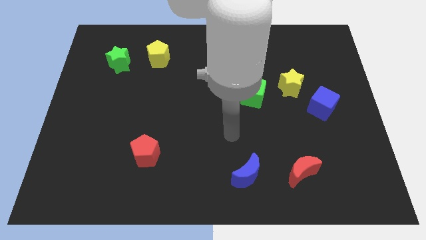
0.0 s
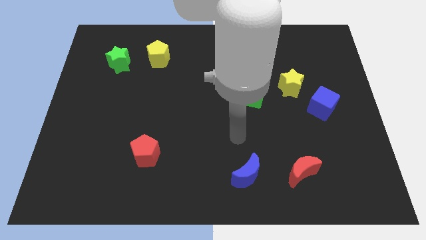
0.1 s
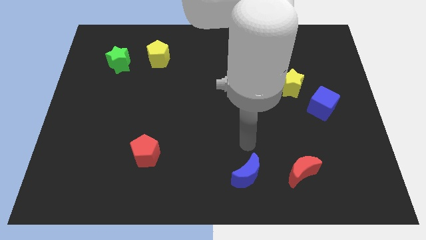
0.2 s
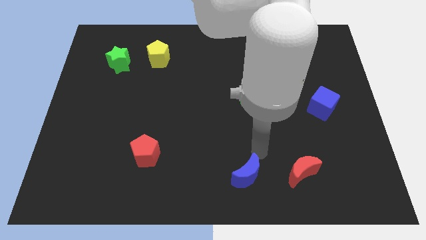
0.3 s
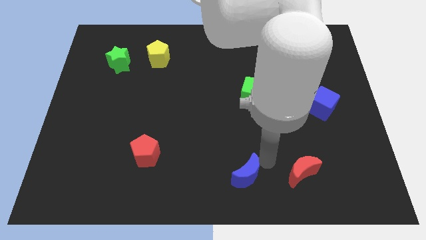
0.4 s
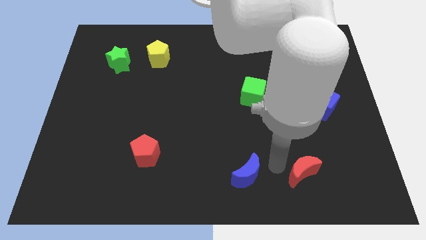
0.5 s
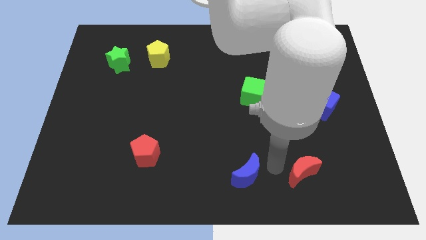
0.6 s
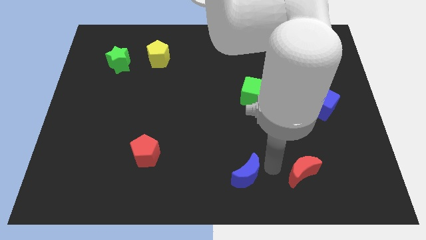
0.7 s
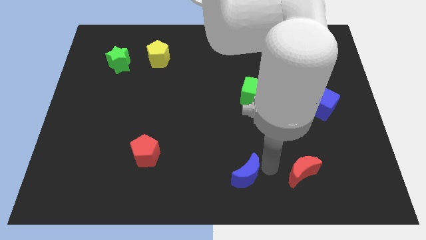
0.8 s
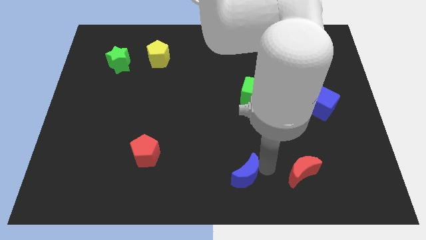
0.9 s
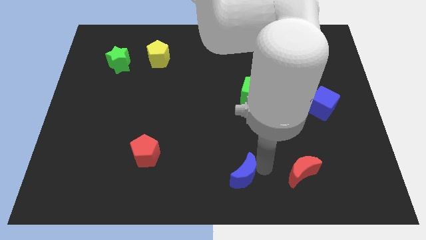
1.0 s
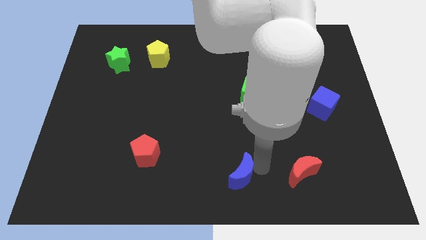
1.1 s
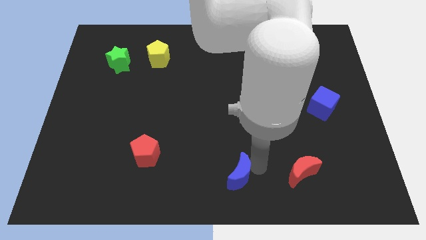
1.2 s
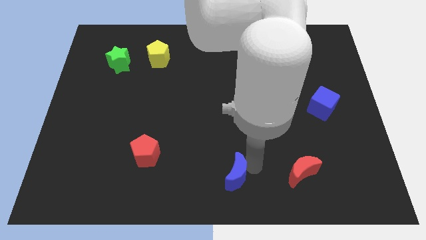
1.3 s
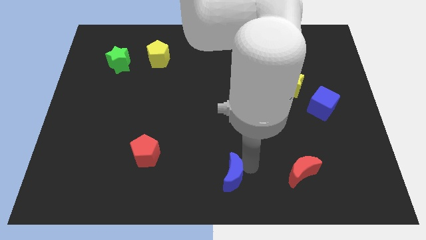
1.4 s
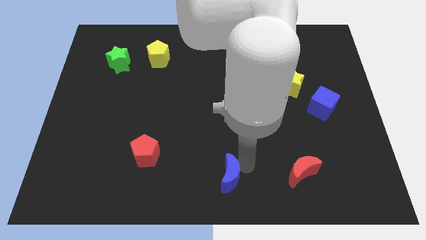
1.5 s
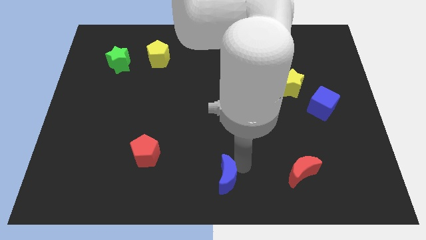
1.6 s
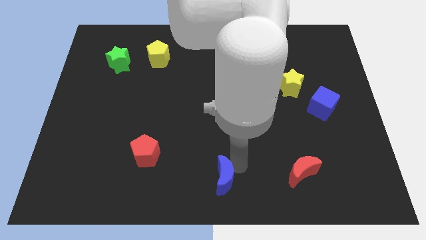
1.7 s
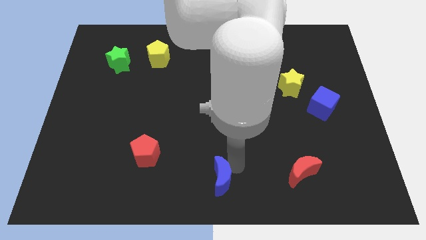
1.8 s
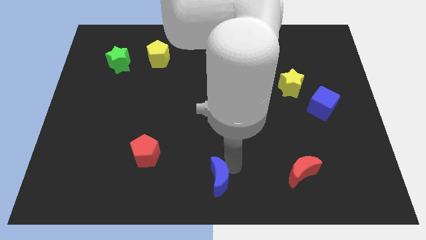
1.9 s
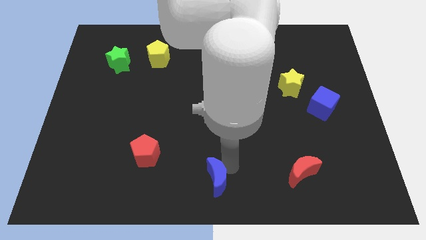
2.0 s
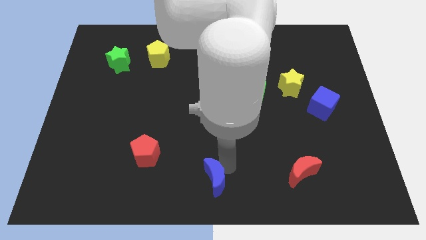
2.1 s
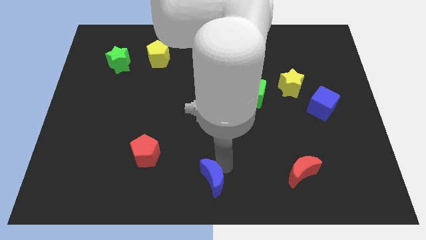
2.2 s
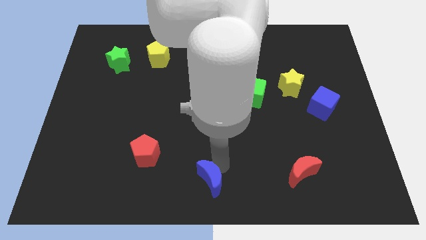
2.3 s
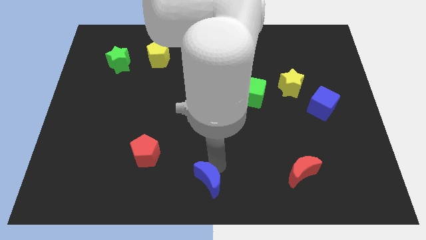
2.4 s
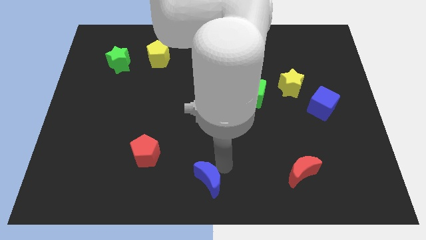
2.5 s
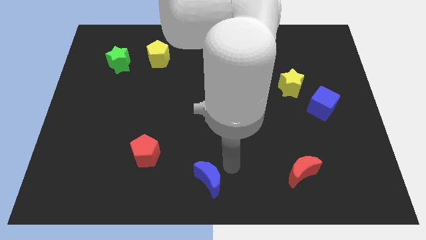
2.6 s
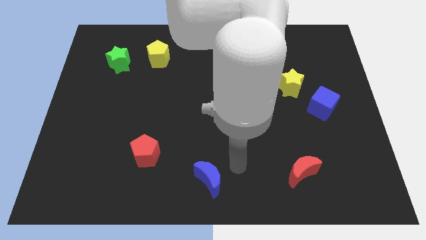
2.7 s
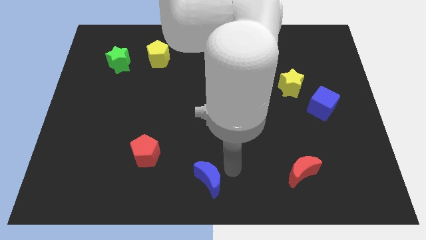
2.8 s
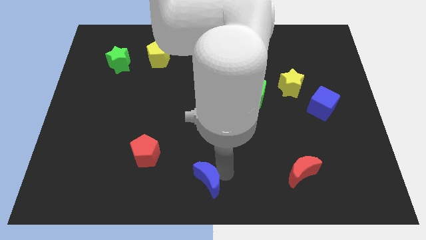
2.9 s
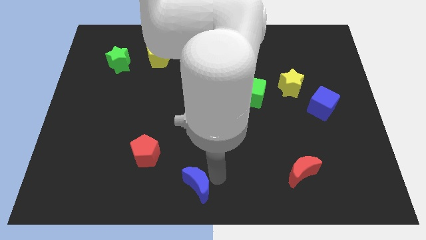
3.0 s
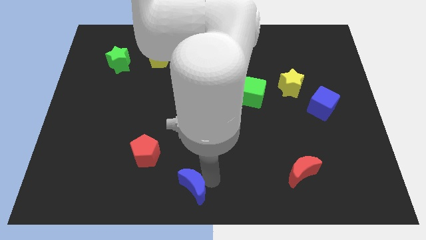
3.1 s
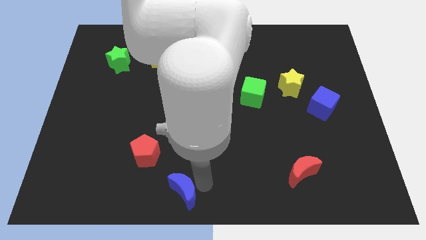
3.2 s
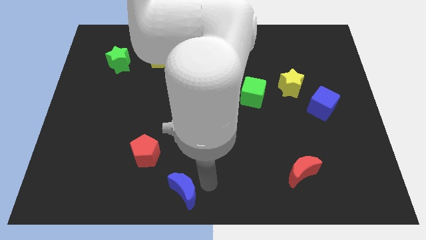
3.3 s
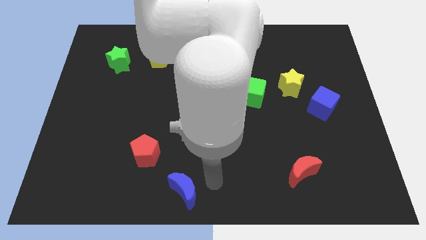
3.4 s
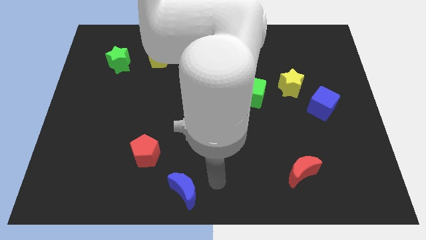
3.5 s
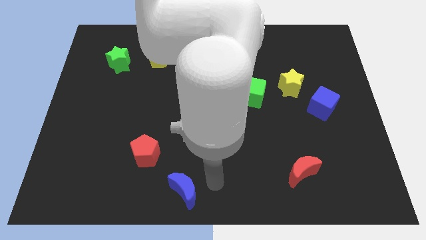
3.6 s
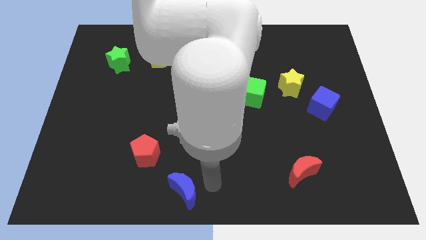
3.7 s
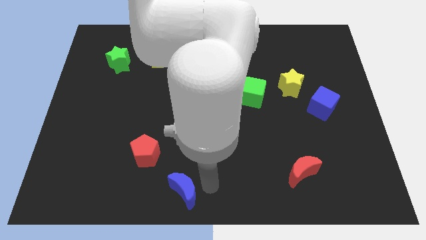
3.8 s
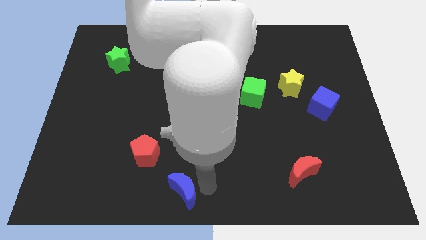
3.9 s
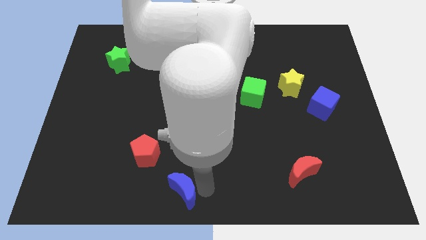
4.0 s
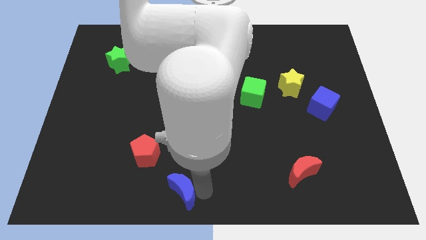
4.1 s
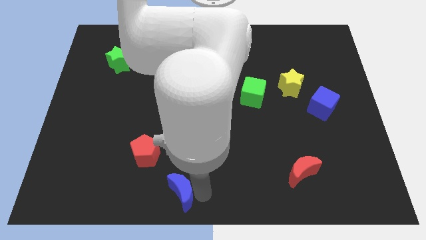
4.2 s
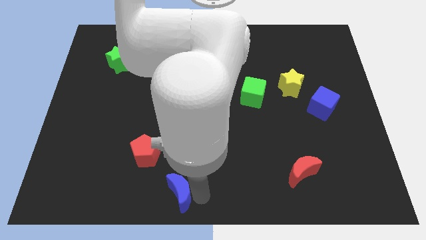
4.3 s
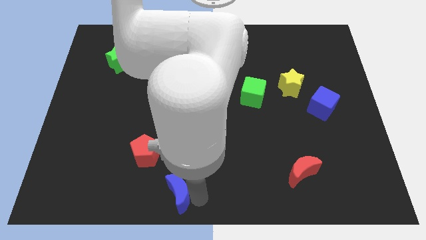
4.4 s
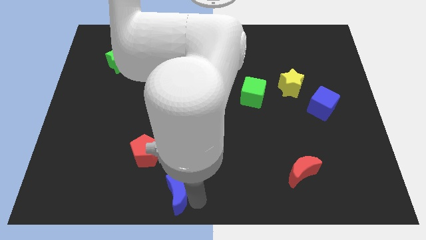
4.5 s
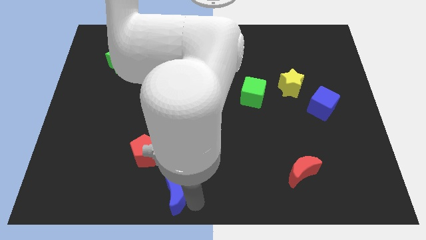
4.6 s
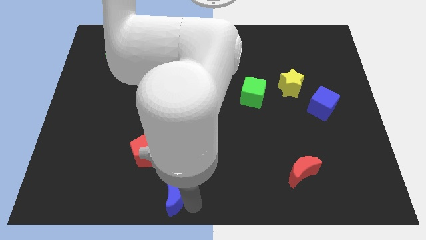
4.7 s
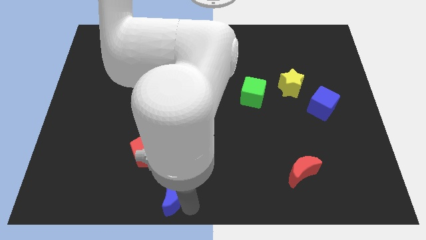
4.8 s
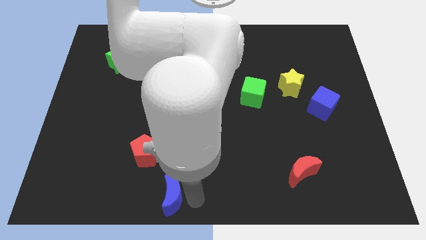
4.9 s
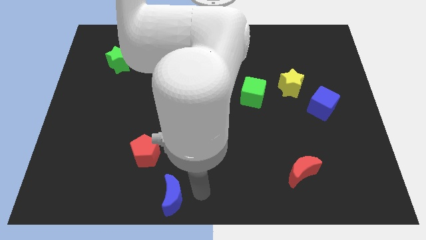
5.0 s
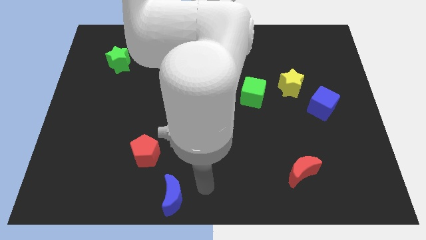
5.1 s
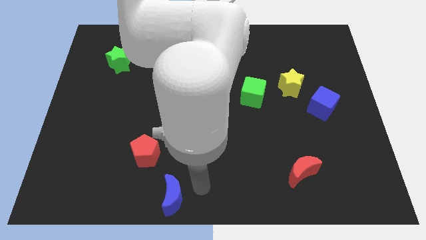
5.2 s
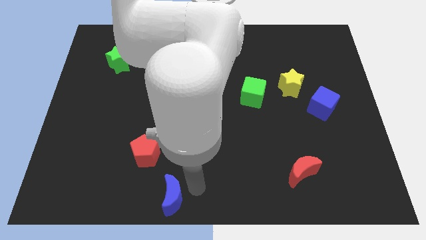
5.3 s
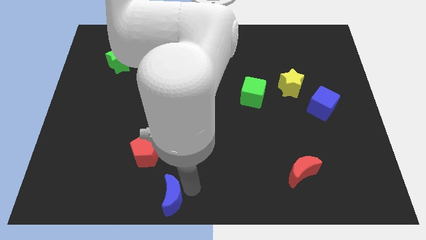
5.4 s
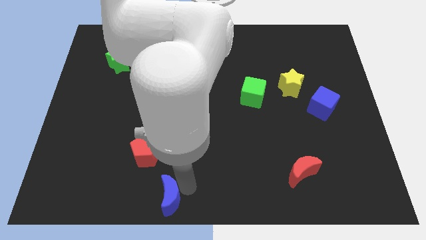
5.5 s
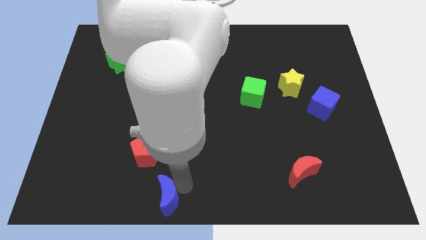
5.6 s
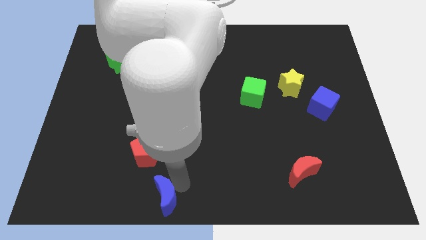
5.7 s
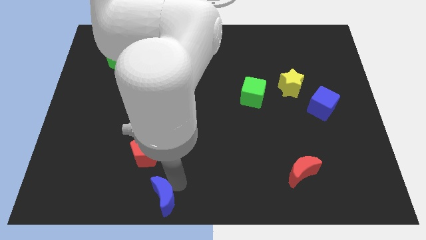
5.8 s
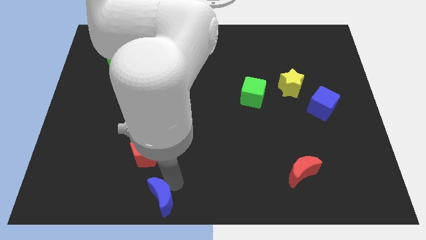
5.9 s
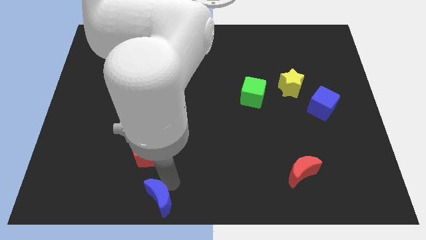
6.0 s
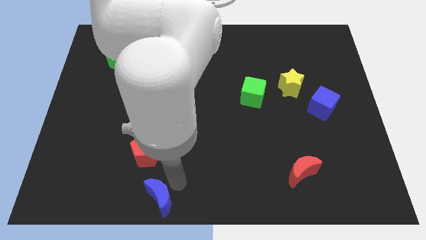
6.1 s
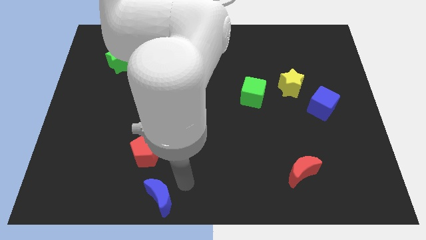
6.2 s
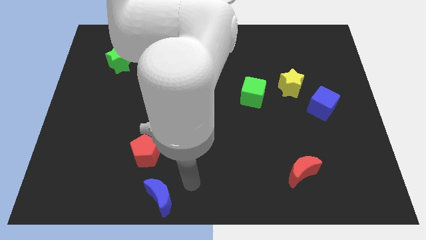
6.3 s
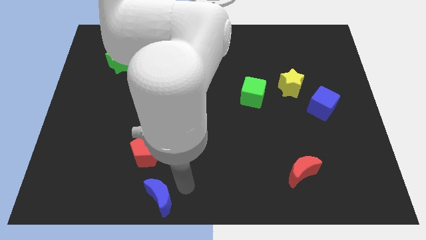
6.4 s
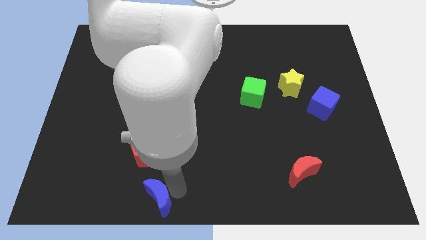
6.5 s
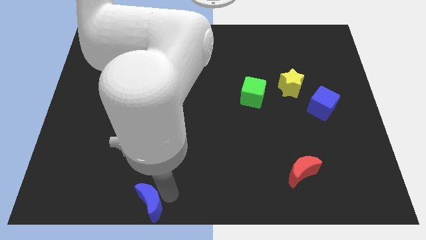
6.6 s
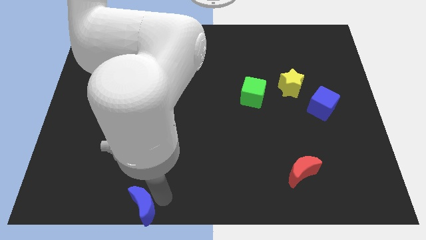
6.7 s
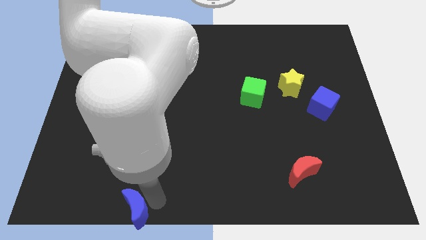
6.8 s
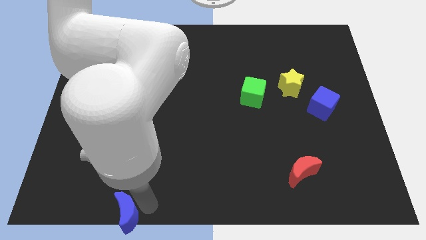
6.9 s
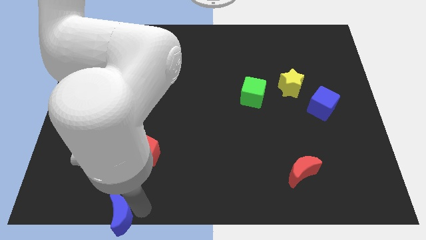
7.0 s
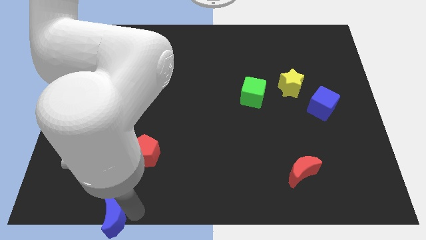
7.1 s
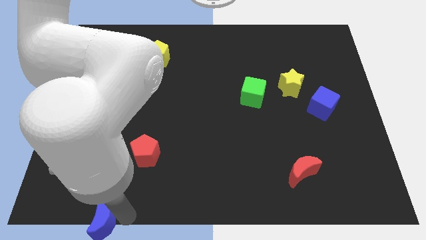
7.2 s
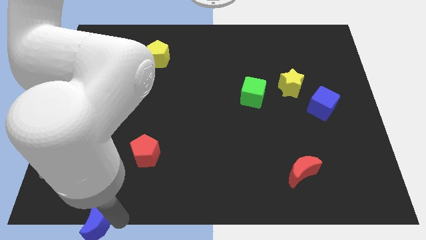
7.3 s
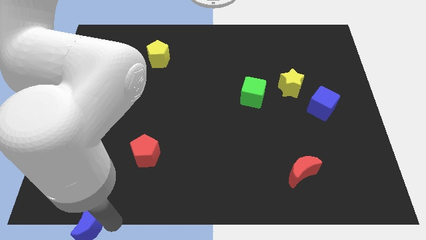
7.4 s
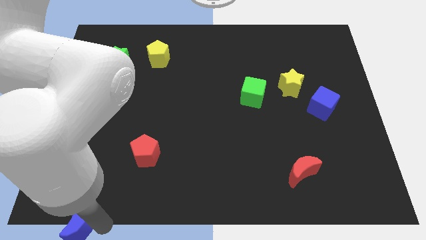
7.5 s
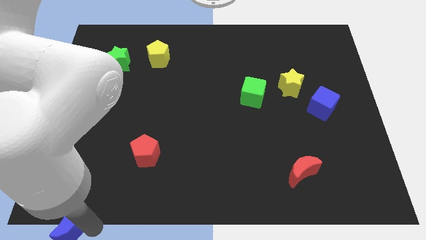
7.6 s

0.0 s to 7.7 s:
push the blue moon to the bottom left

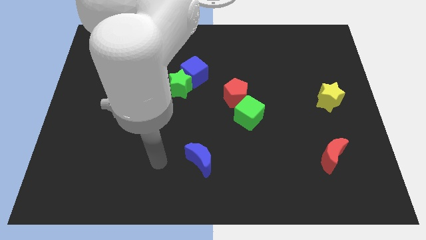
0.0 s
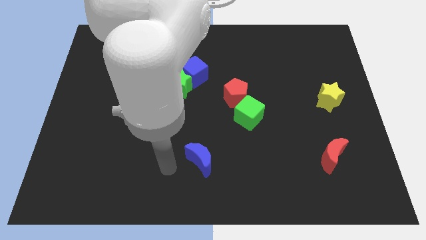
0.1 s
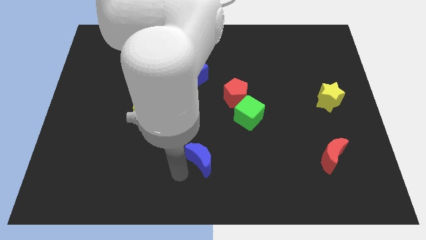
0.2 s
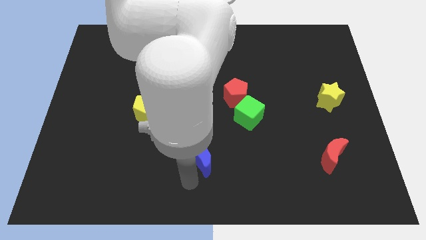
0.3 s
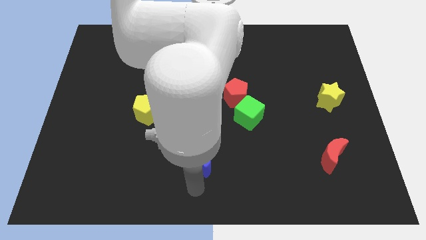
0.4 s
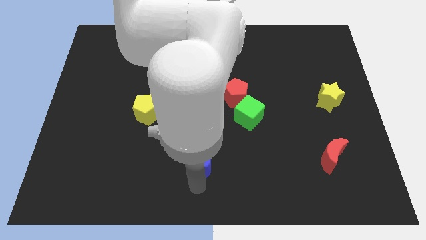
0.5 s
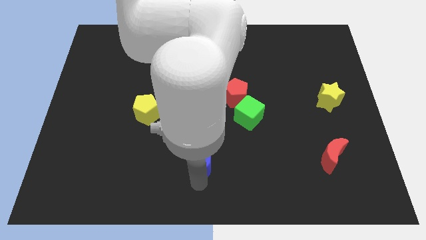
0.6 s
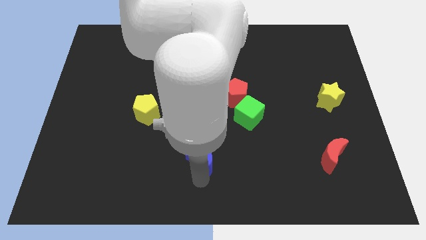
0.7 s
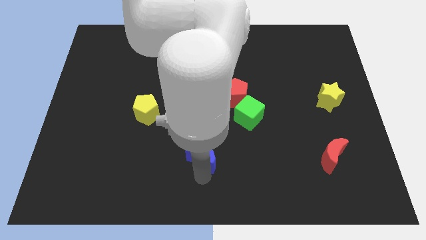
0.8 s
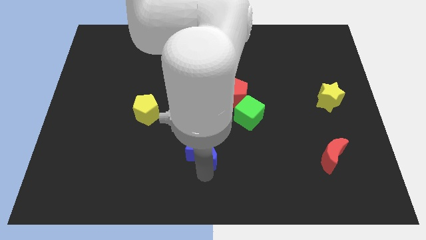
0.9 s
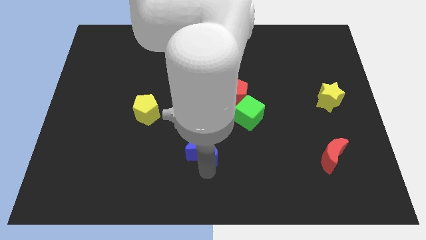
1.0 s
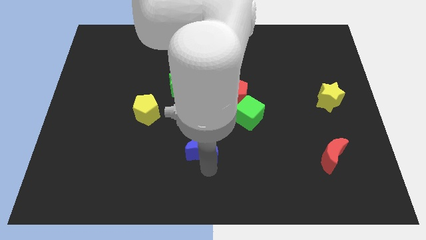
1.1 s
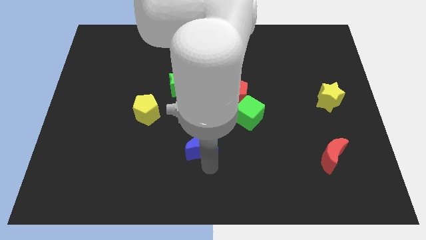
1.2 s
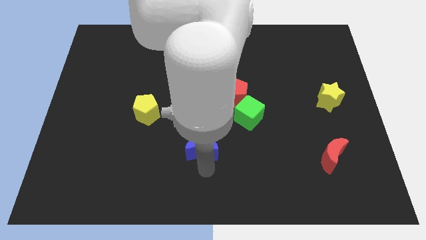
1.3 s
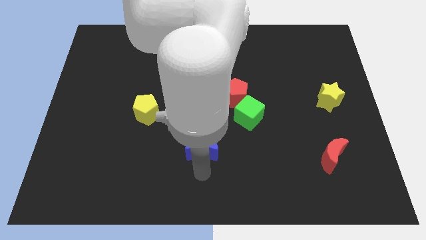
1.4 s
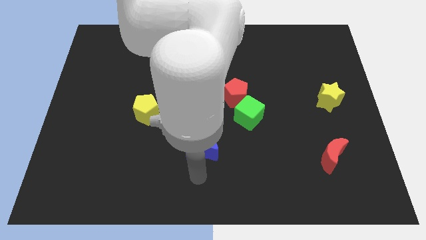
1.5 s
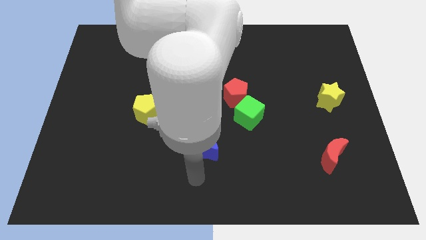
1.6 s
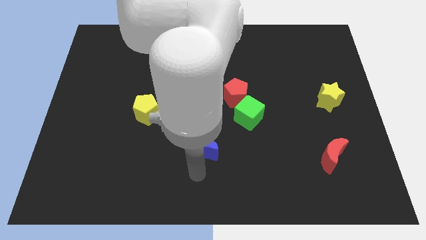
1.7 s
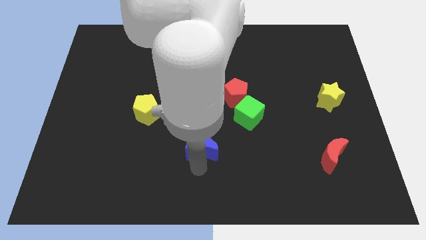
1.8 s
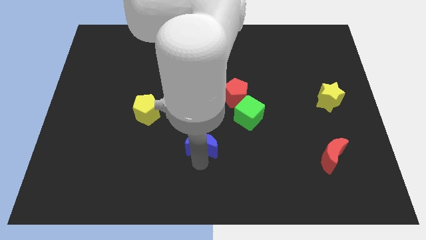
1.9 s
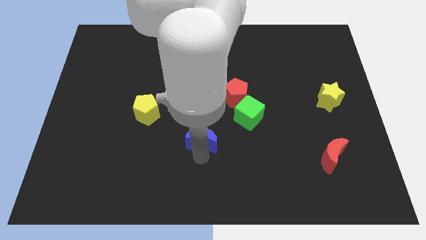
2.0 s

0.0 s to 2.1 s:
put the blue moon to the center of the board
